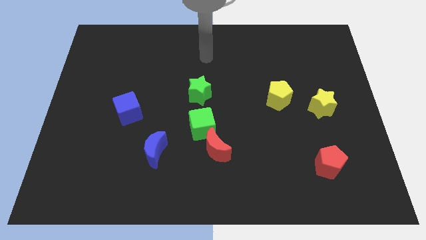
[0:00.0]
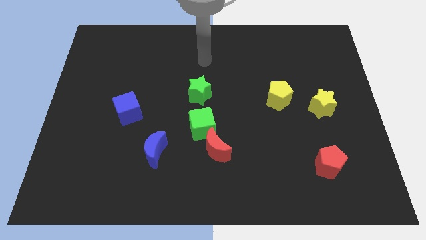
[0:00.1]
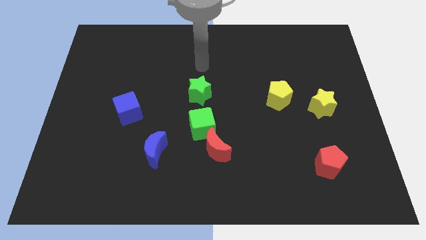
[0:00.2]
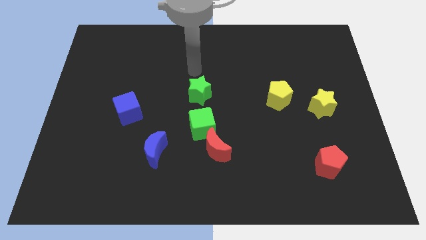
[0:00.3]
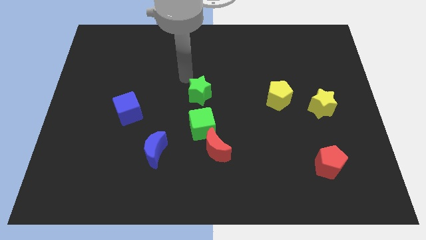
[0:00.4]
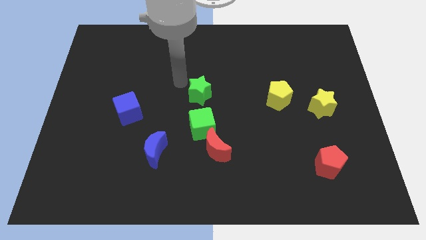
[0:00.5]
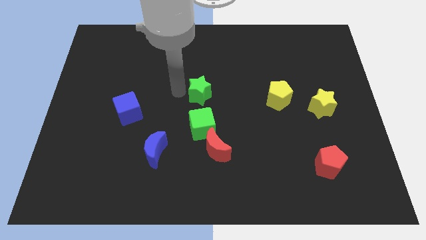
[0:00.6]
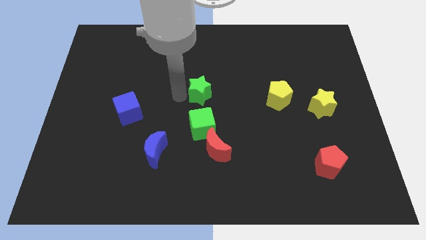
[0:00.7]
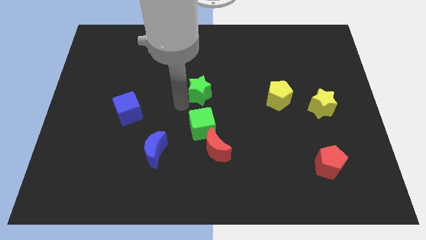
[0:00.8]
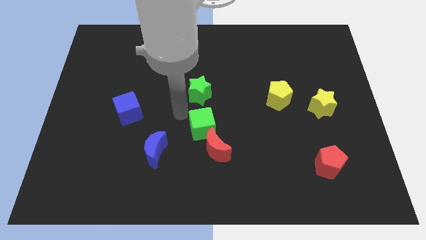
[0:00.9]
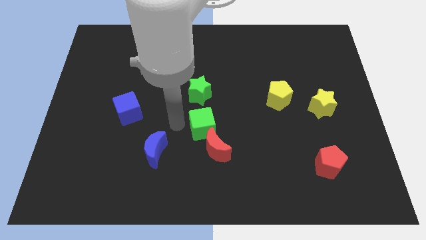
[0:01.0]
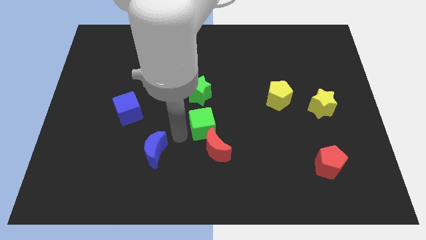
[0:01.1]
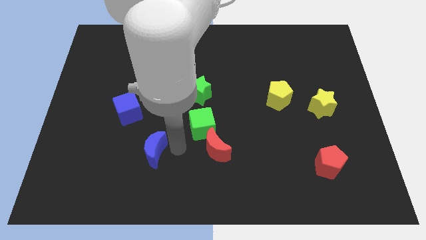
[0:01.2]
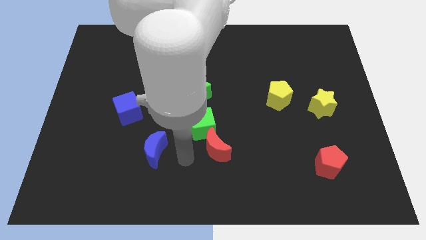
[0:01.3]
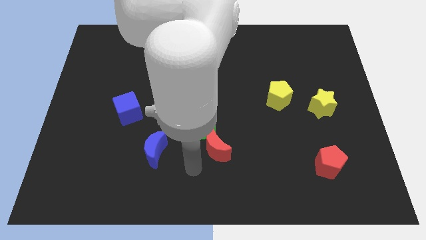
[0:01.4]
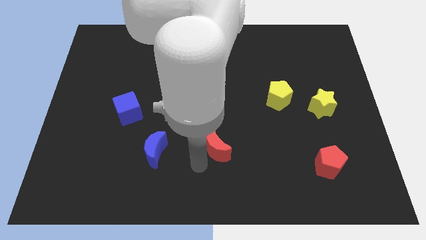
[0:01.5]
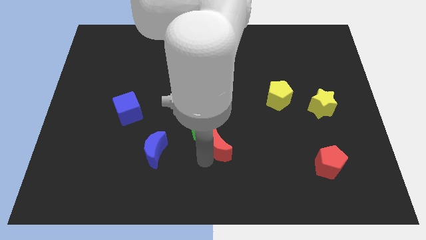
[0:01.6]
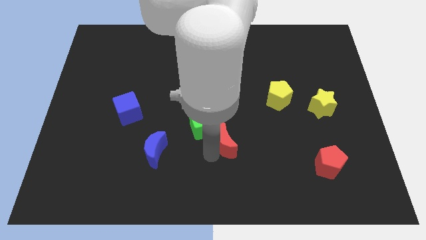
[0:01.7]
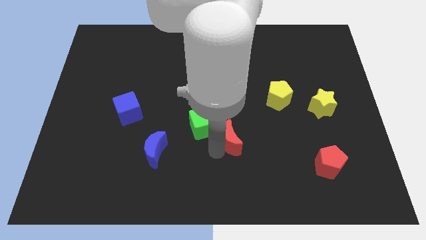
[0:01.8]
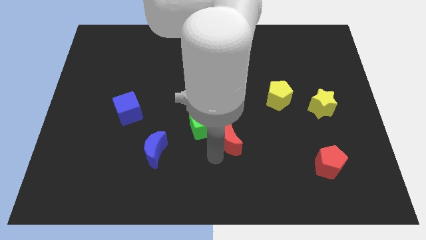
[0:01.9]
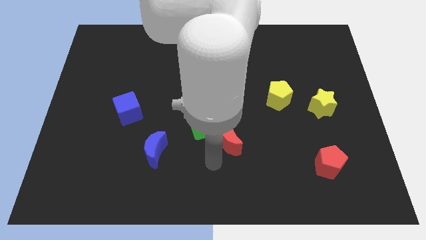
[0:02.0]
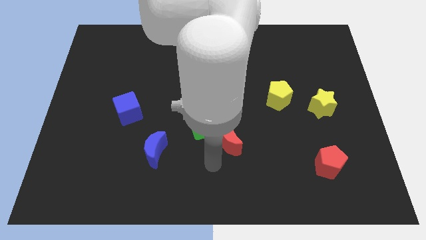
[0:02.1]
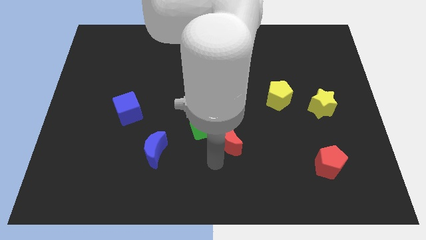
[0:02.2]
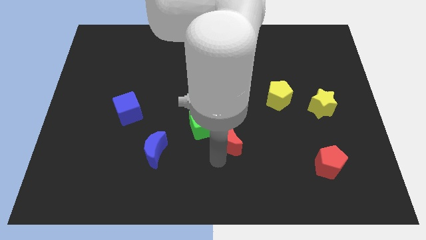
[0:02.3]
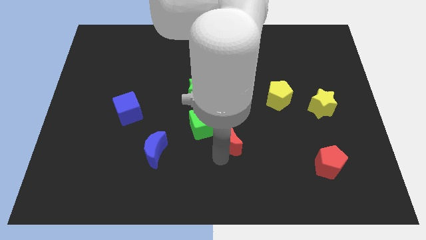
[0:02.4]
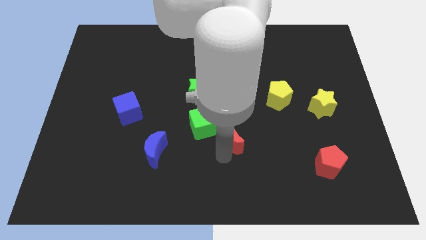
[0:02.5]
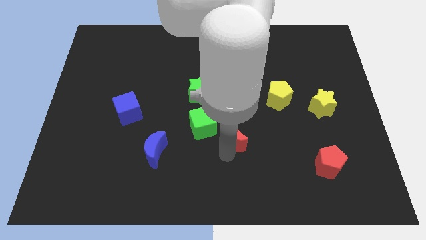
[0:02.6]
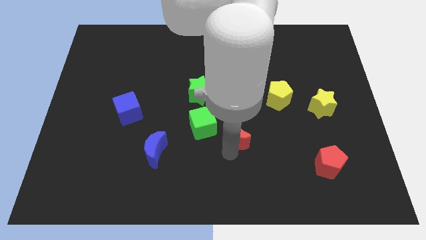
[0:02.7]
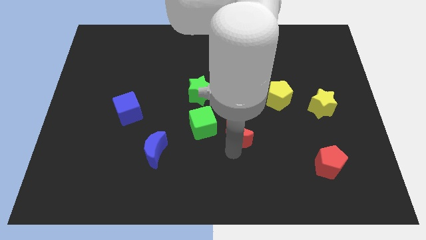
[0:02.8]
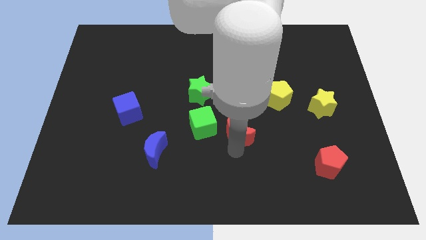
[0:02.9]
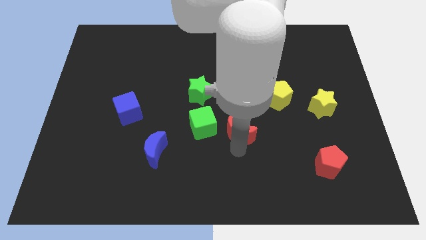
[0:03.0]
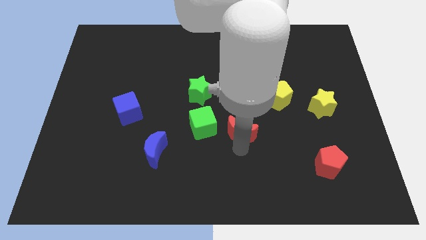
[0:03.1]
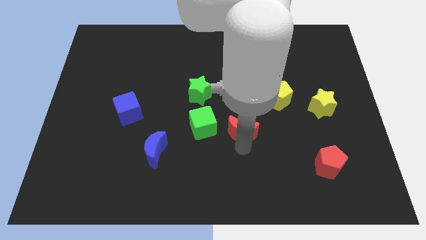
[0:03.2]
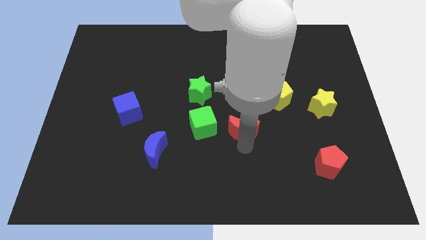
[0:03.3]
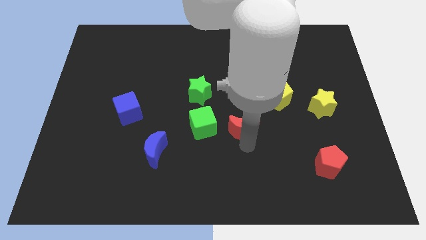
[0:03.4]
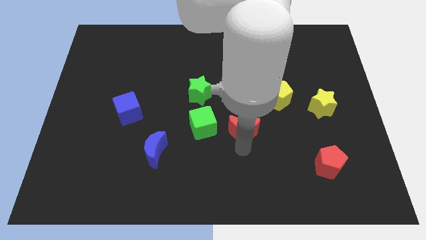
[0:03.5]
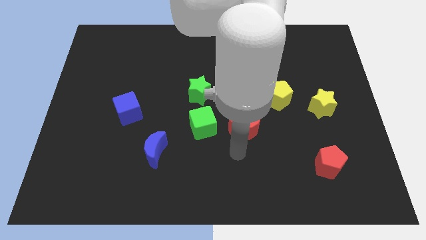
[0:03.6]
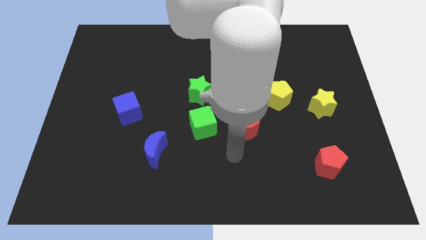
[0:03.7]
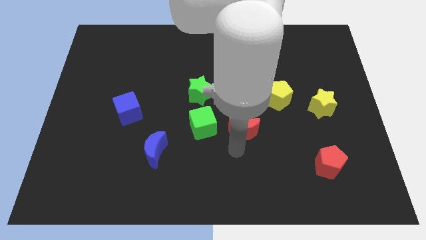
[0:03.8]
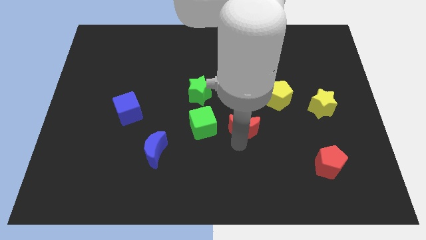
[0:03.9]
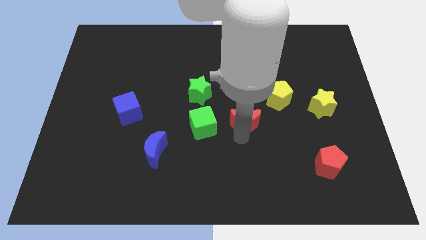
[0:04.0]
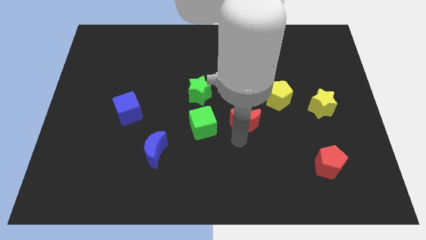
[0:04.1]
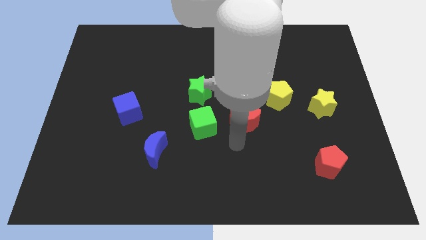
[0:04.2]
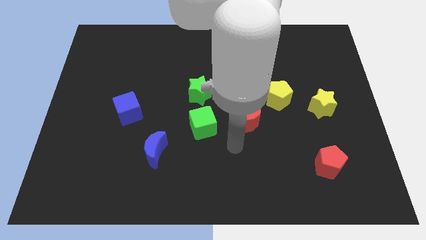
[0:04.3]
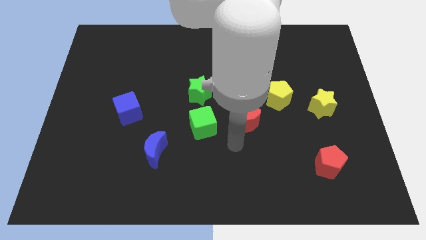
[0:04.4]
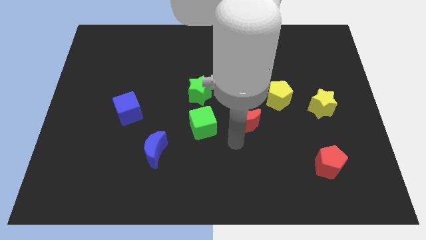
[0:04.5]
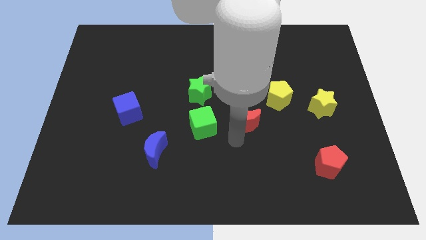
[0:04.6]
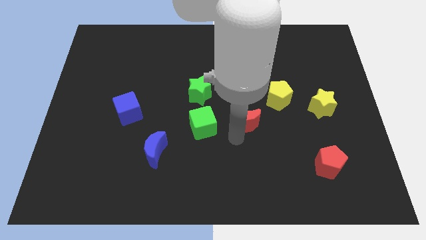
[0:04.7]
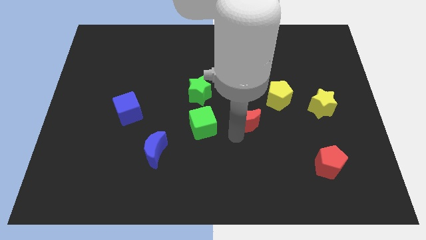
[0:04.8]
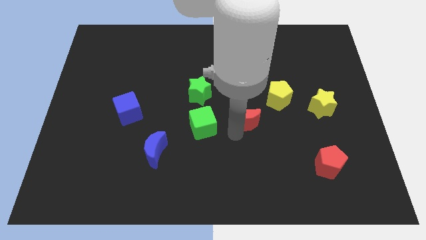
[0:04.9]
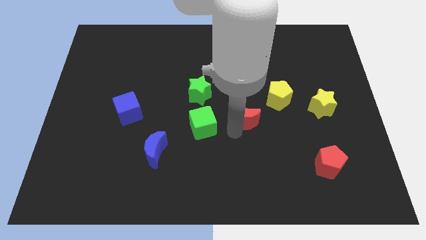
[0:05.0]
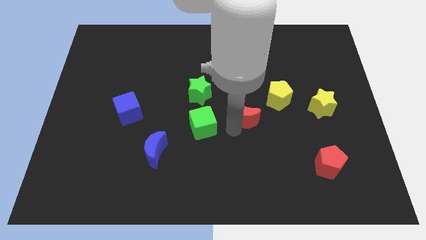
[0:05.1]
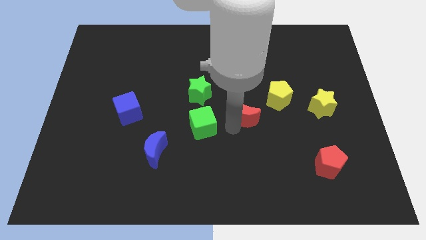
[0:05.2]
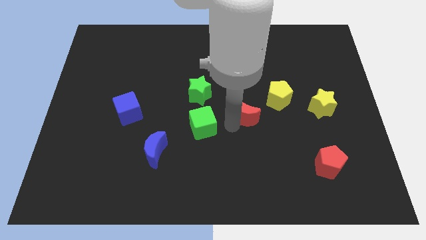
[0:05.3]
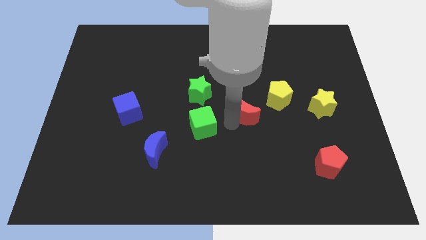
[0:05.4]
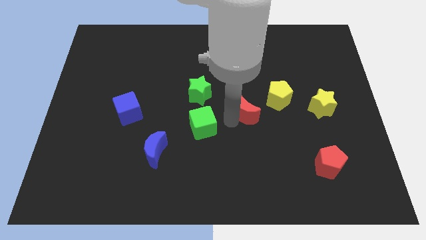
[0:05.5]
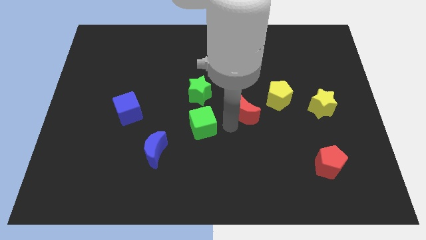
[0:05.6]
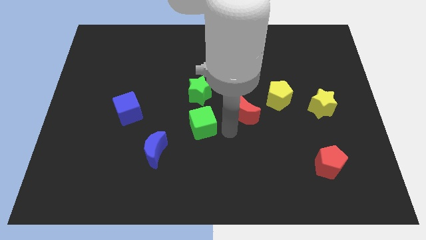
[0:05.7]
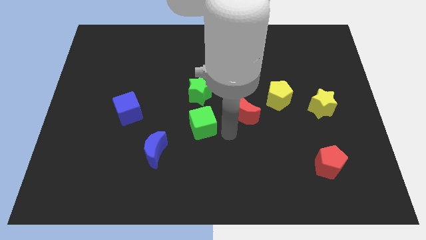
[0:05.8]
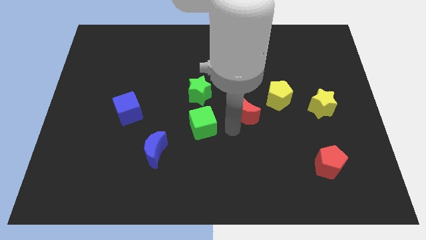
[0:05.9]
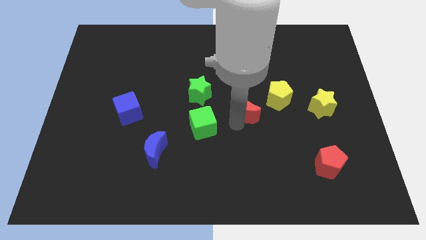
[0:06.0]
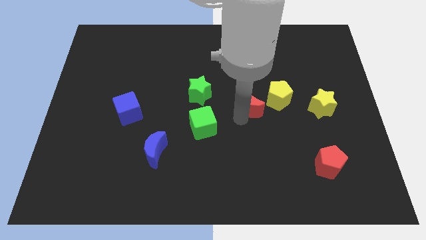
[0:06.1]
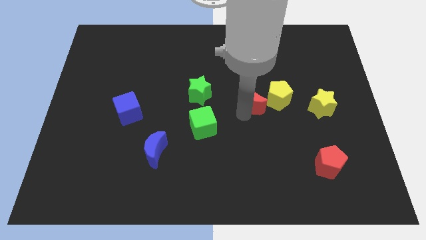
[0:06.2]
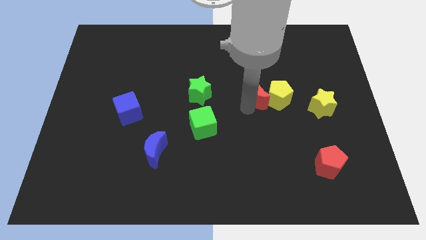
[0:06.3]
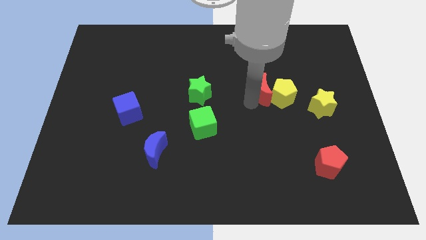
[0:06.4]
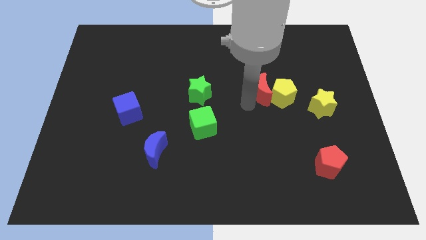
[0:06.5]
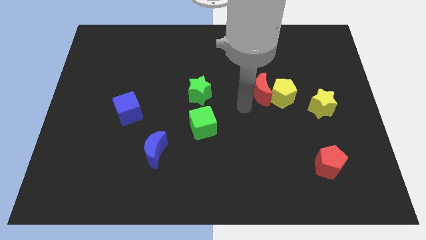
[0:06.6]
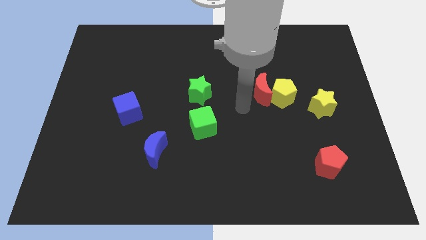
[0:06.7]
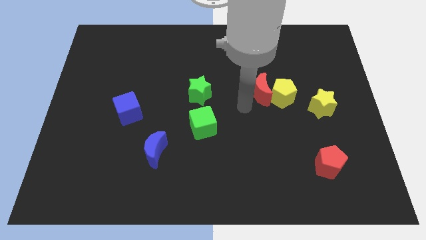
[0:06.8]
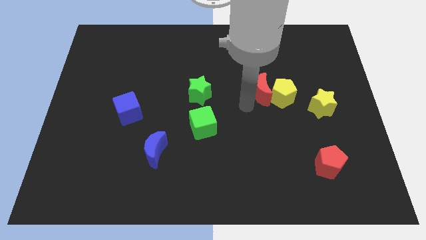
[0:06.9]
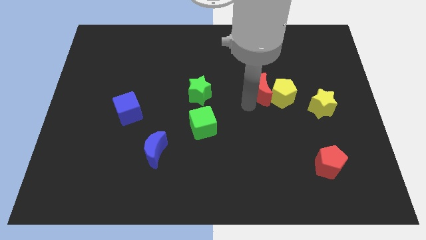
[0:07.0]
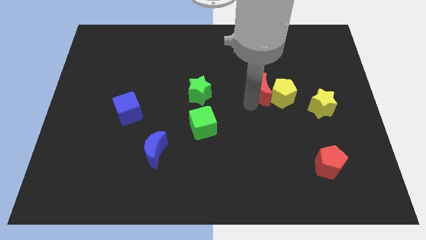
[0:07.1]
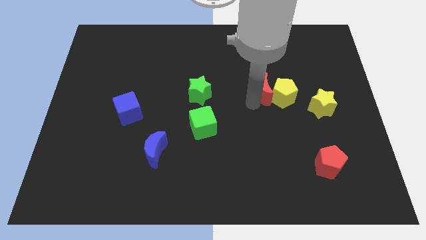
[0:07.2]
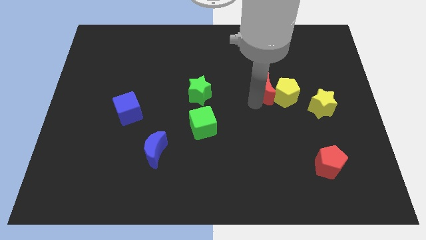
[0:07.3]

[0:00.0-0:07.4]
move the red moon diagonally upwards and to the right

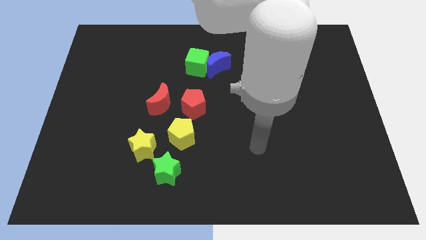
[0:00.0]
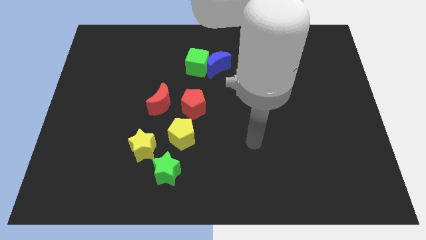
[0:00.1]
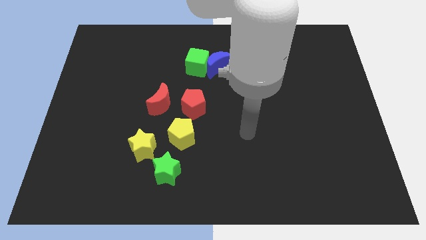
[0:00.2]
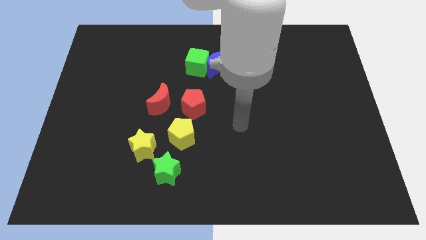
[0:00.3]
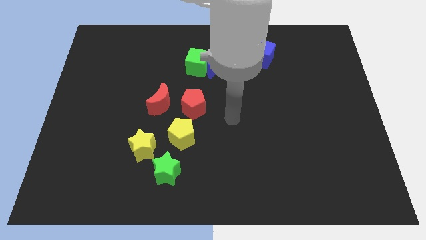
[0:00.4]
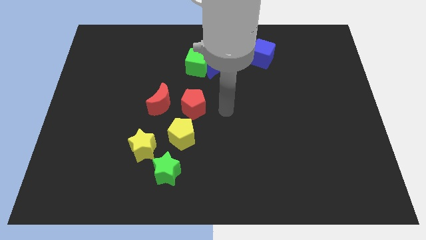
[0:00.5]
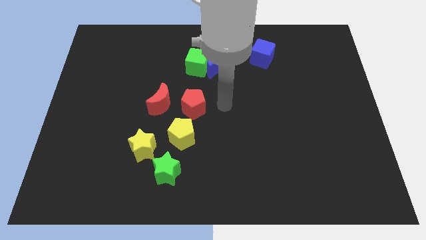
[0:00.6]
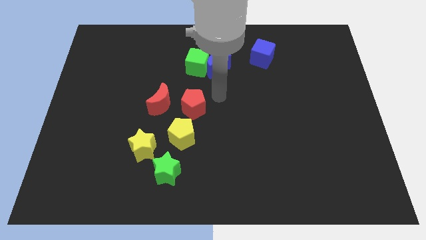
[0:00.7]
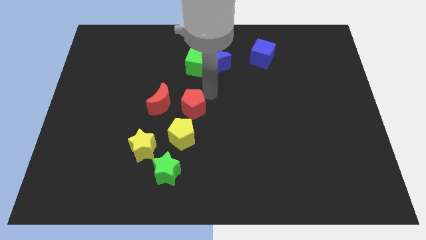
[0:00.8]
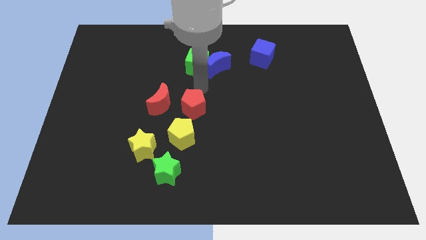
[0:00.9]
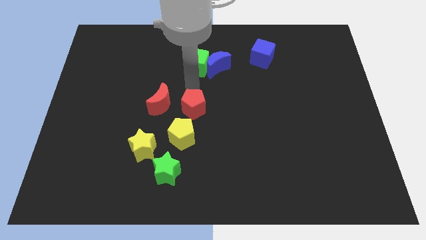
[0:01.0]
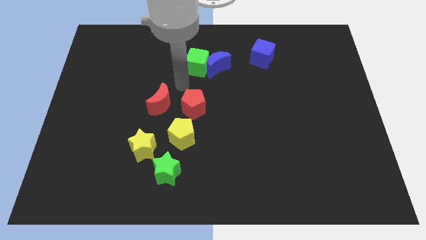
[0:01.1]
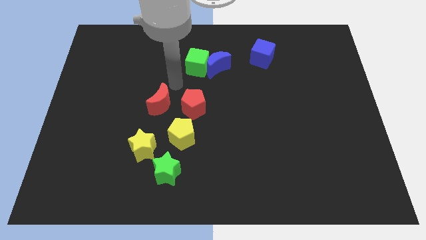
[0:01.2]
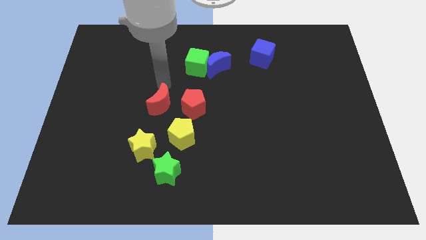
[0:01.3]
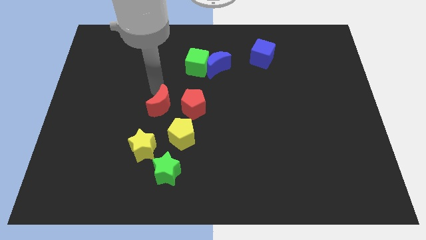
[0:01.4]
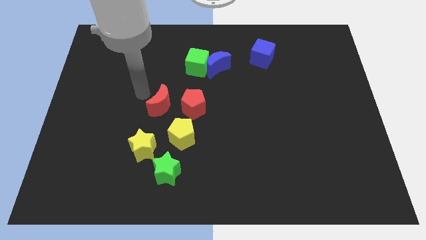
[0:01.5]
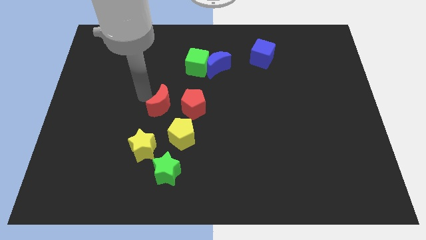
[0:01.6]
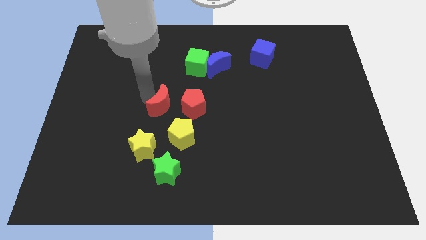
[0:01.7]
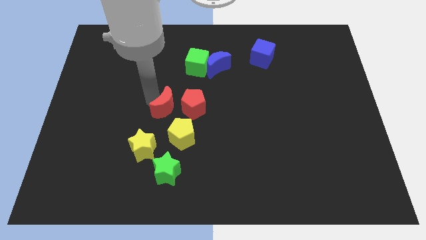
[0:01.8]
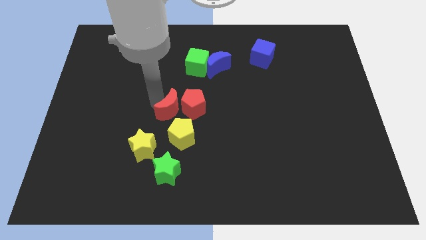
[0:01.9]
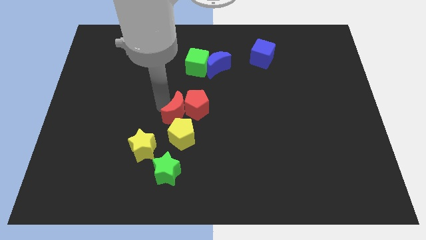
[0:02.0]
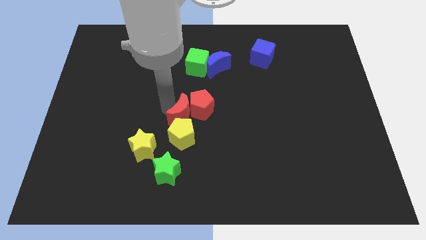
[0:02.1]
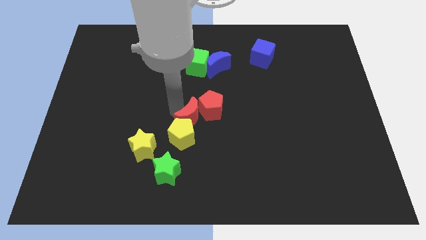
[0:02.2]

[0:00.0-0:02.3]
push the red moon a bit down and right diagonally
